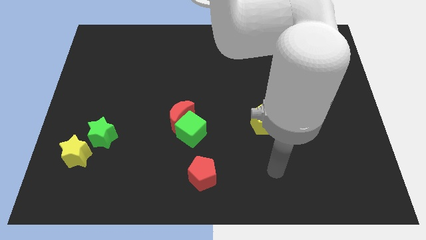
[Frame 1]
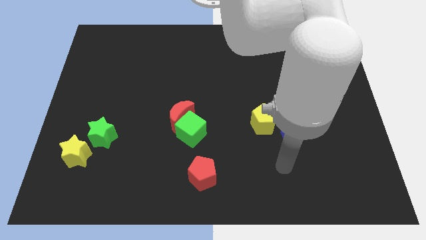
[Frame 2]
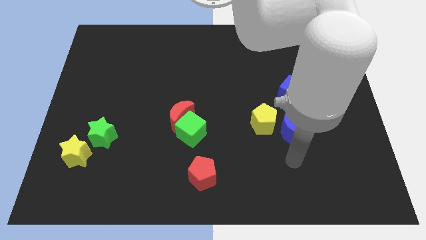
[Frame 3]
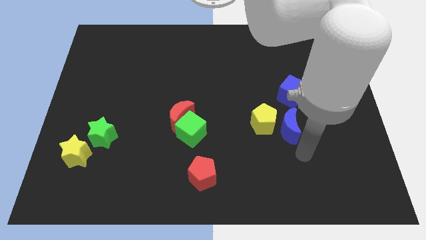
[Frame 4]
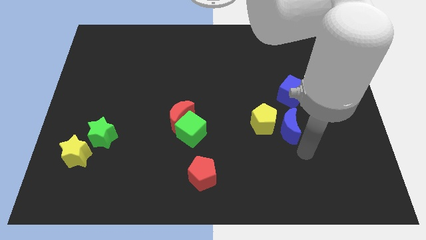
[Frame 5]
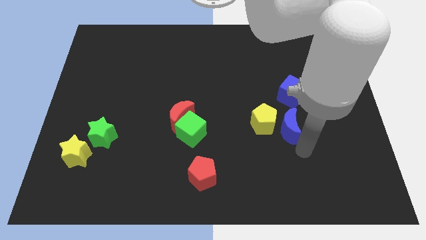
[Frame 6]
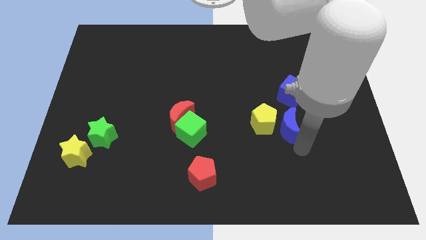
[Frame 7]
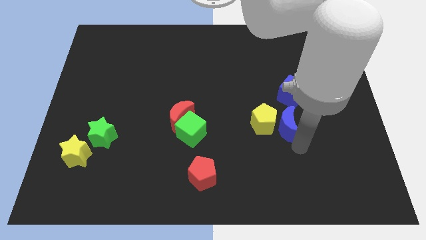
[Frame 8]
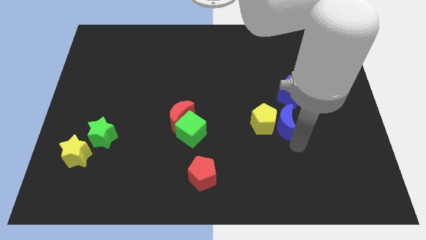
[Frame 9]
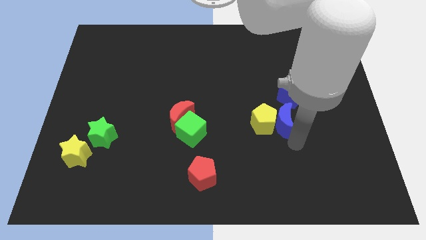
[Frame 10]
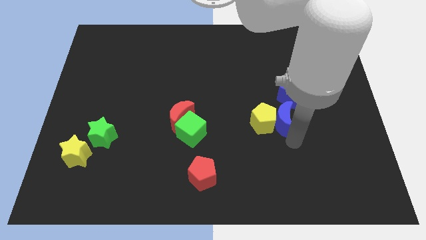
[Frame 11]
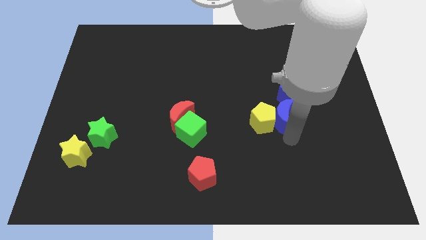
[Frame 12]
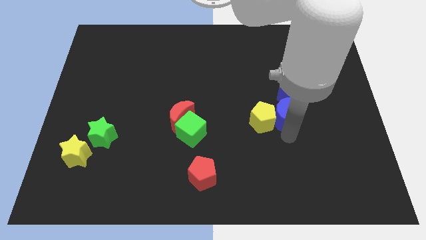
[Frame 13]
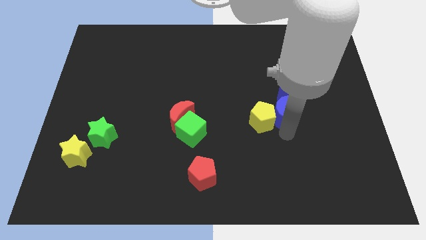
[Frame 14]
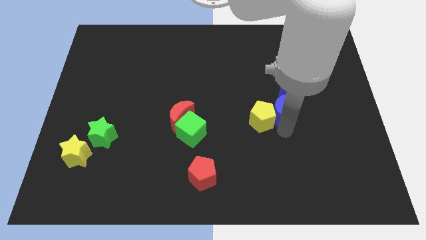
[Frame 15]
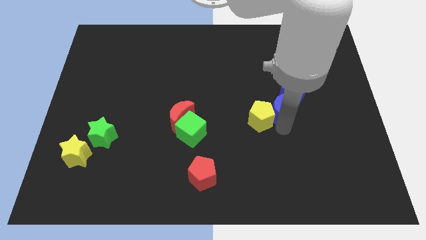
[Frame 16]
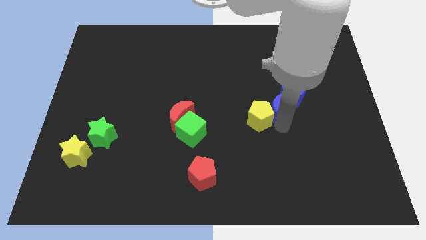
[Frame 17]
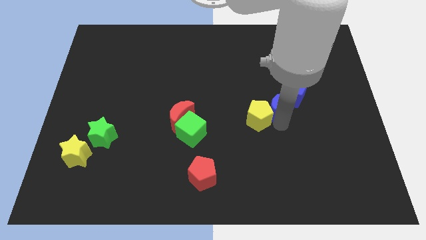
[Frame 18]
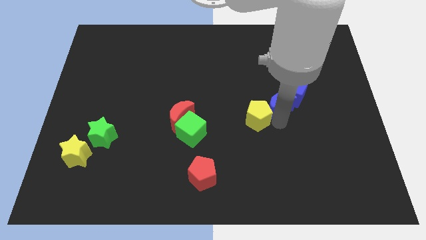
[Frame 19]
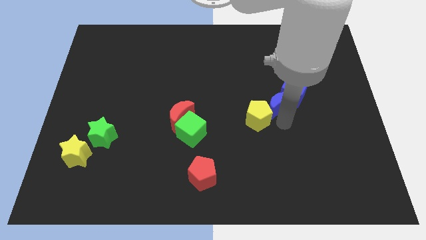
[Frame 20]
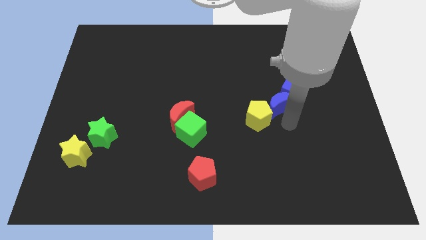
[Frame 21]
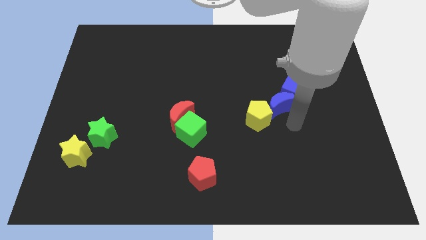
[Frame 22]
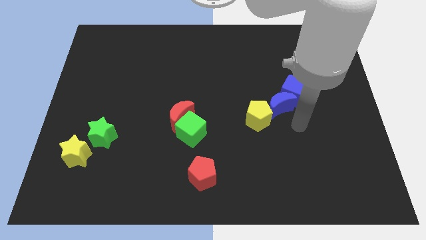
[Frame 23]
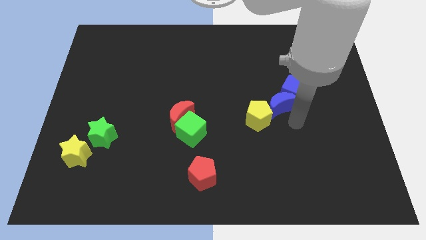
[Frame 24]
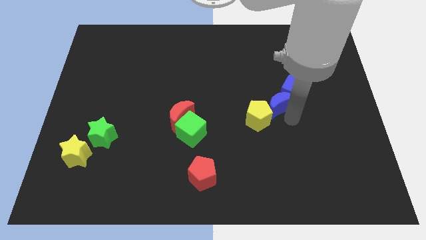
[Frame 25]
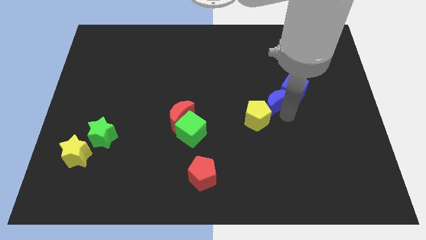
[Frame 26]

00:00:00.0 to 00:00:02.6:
push the blue moon a little bit upwards

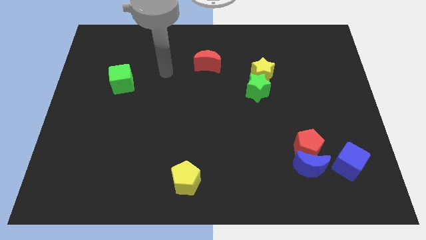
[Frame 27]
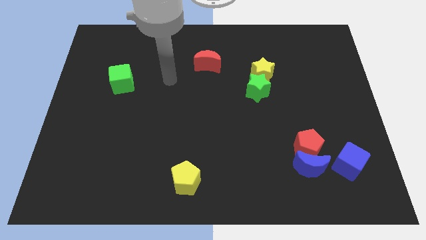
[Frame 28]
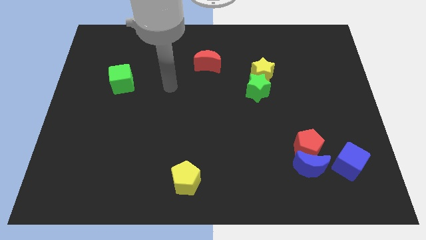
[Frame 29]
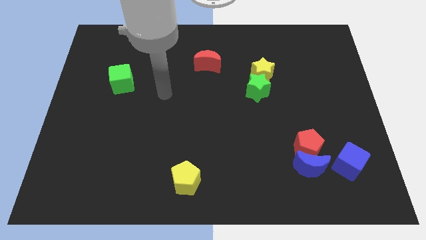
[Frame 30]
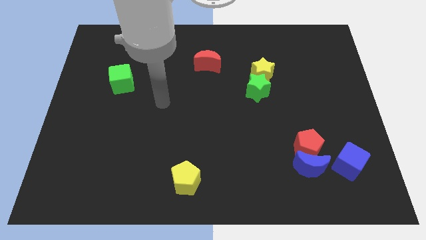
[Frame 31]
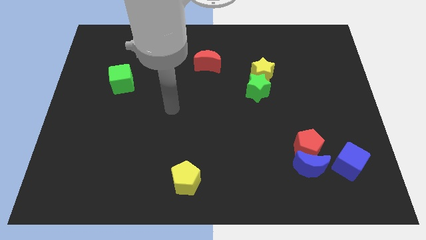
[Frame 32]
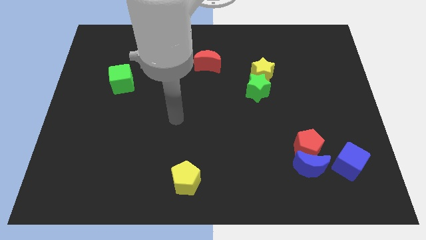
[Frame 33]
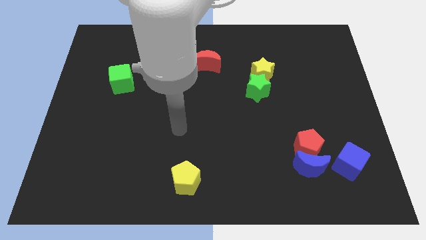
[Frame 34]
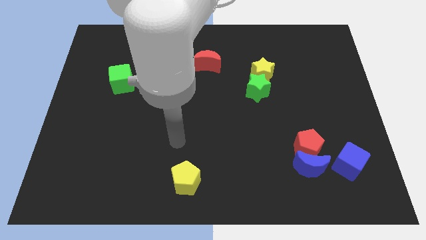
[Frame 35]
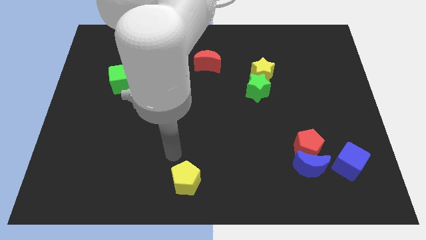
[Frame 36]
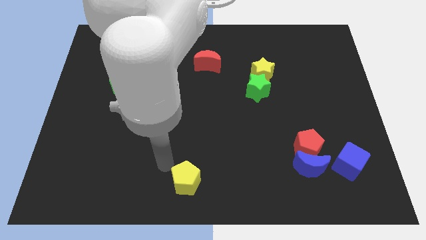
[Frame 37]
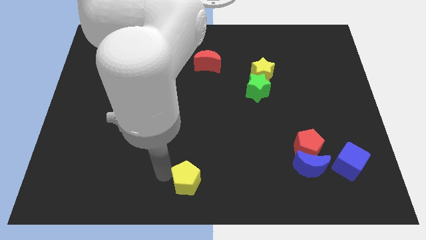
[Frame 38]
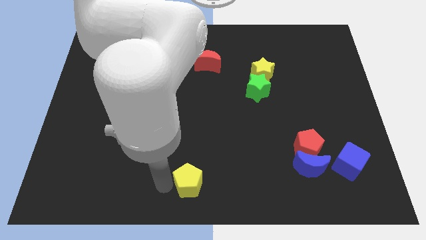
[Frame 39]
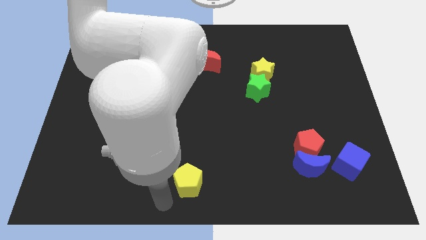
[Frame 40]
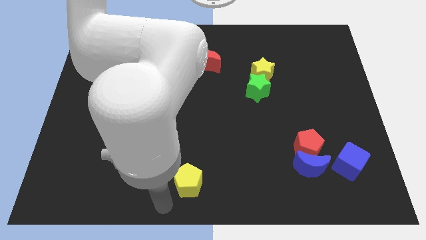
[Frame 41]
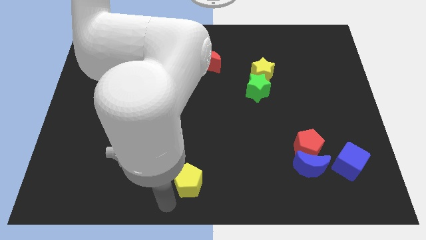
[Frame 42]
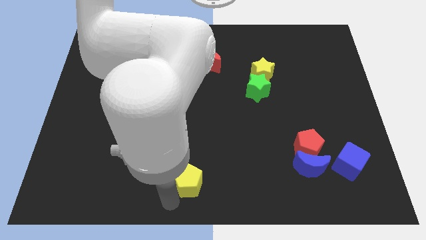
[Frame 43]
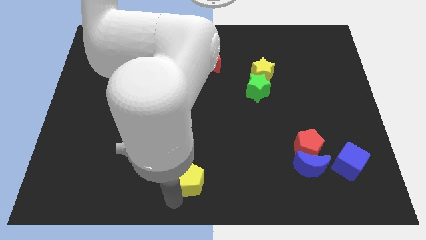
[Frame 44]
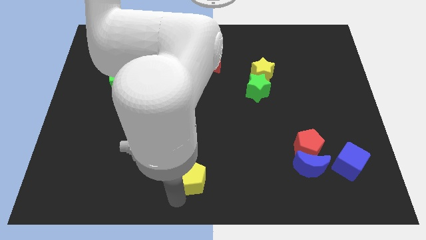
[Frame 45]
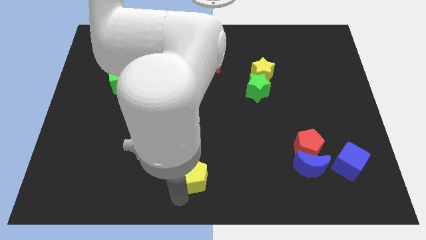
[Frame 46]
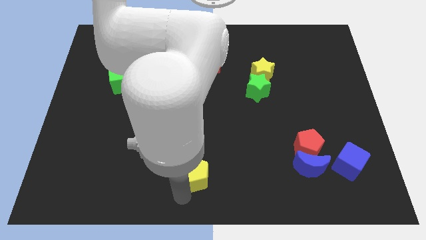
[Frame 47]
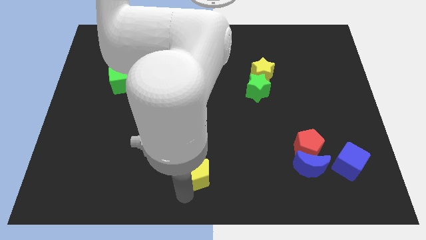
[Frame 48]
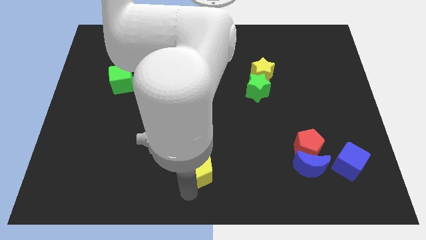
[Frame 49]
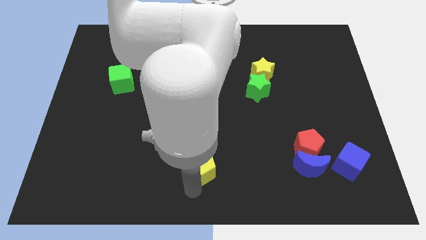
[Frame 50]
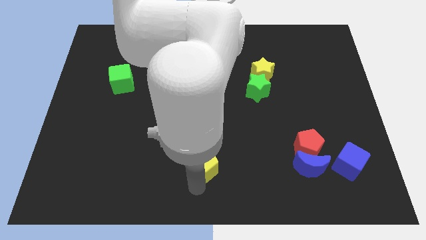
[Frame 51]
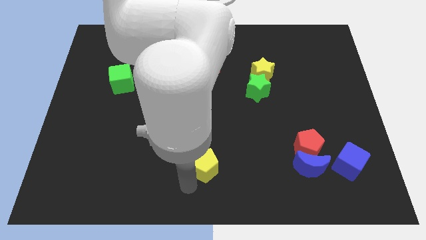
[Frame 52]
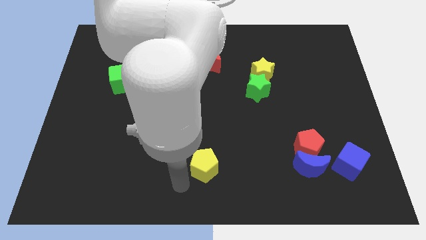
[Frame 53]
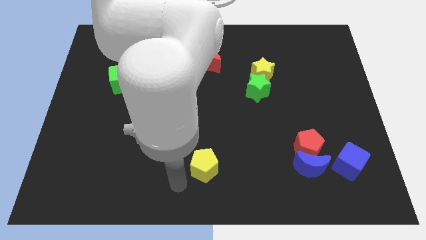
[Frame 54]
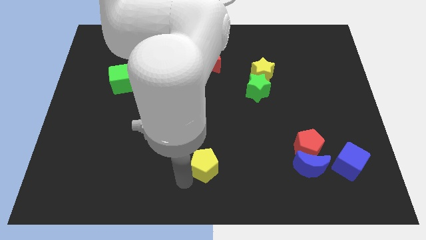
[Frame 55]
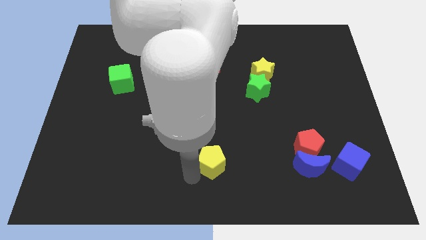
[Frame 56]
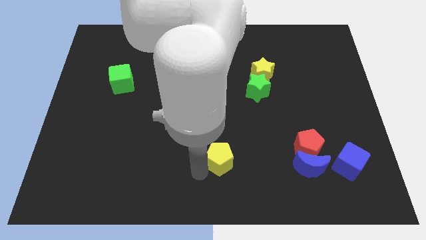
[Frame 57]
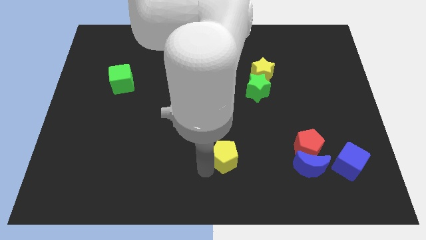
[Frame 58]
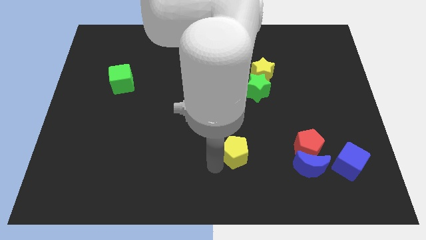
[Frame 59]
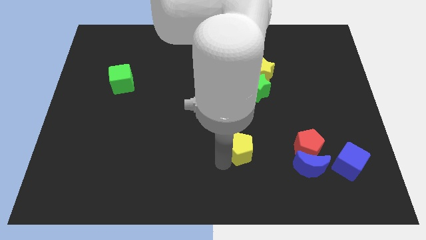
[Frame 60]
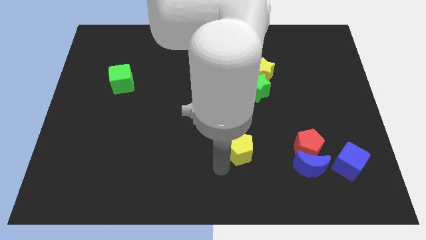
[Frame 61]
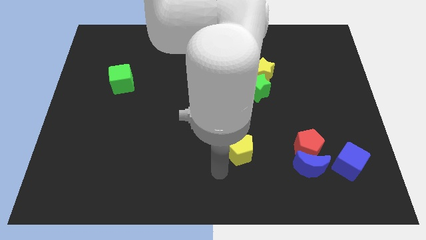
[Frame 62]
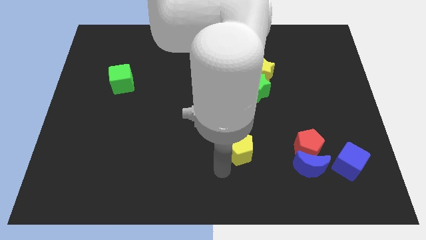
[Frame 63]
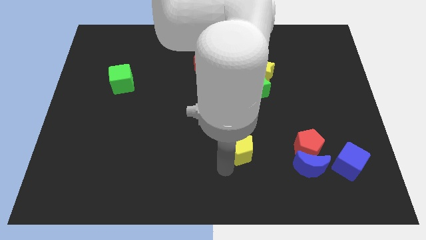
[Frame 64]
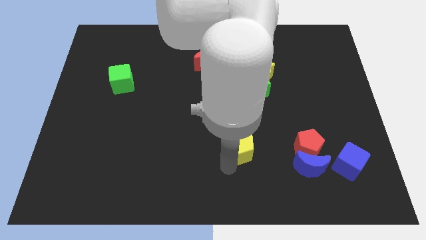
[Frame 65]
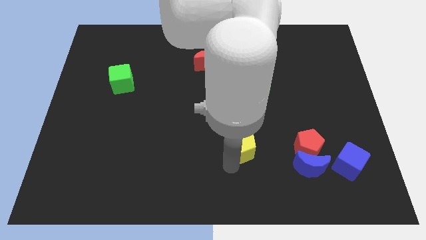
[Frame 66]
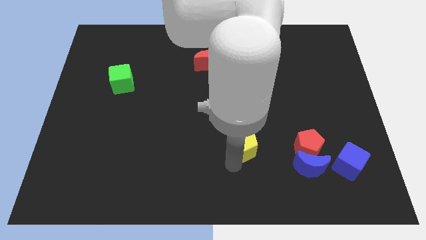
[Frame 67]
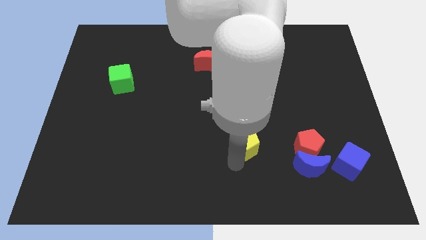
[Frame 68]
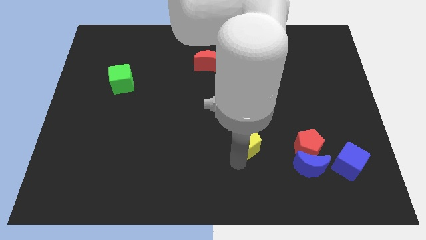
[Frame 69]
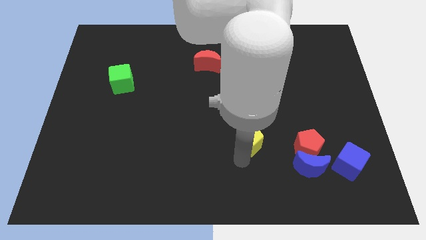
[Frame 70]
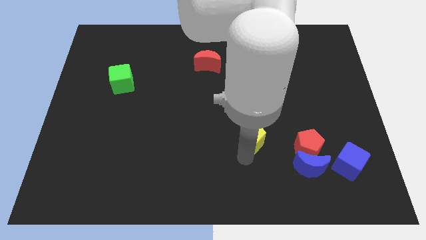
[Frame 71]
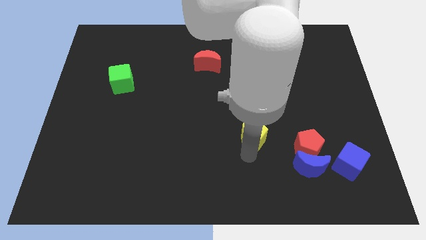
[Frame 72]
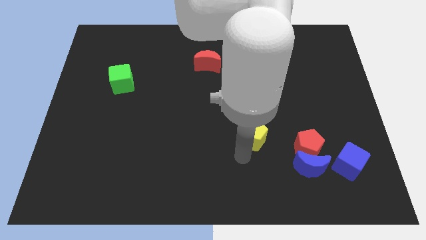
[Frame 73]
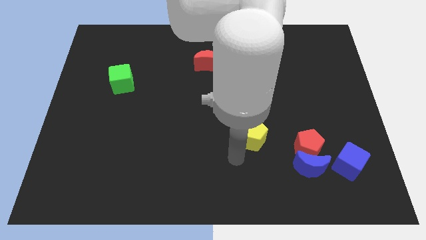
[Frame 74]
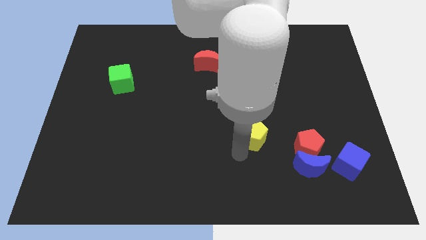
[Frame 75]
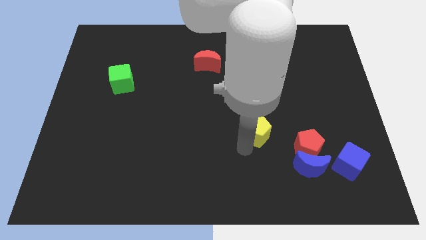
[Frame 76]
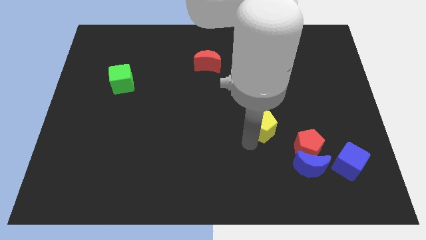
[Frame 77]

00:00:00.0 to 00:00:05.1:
slide the yellow pentagon up and to the right

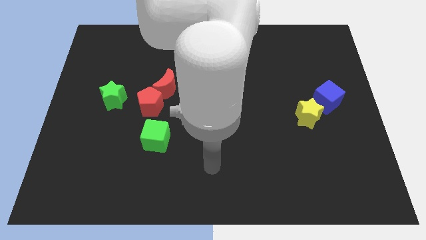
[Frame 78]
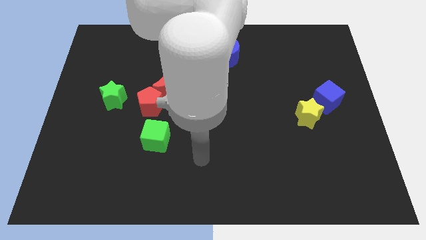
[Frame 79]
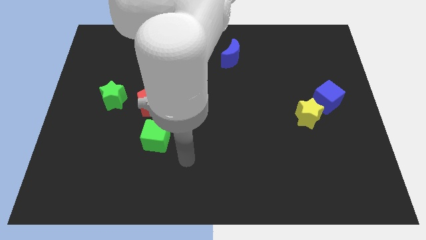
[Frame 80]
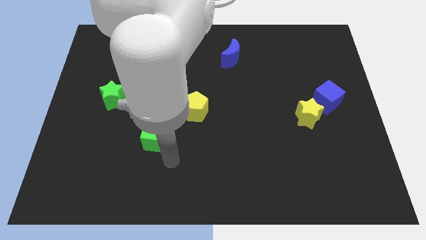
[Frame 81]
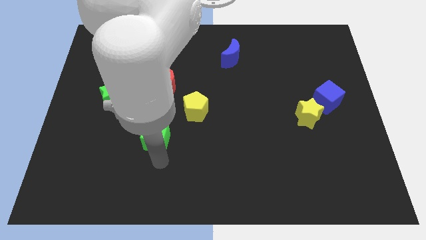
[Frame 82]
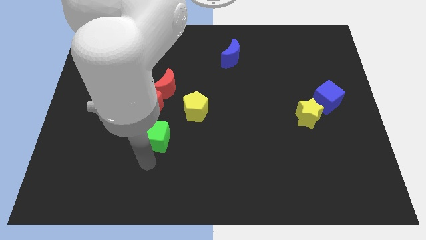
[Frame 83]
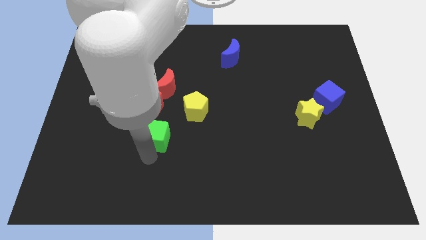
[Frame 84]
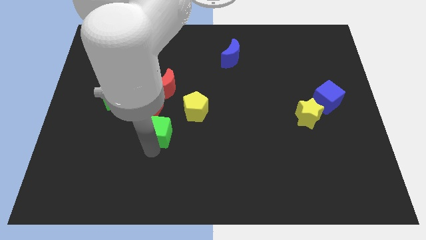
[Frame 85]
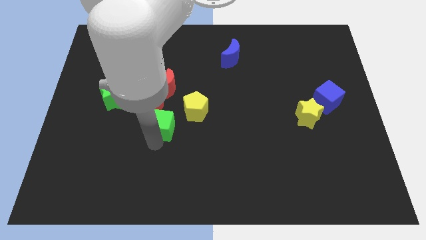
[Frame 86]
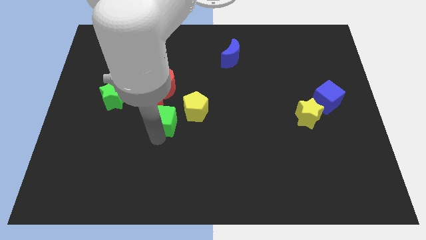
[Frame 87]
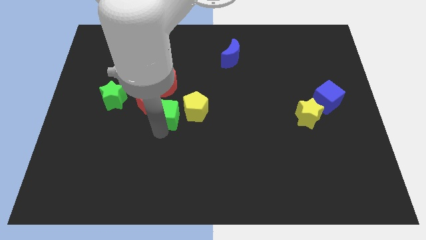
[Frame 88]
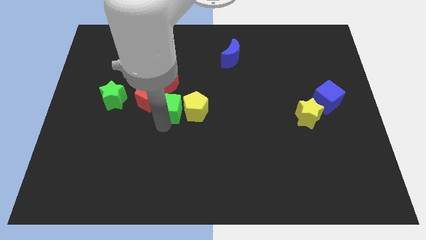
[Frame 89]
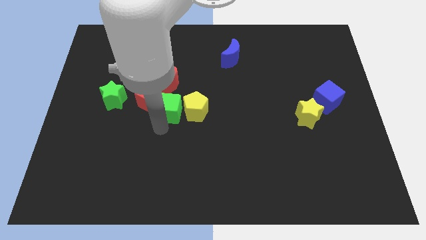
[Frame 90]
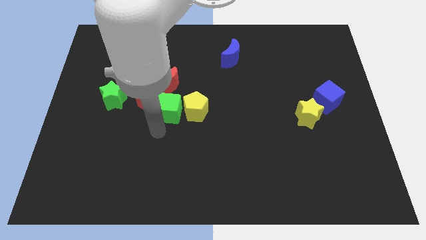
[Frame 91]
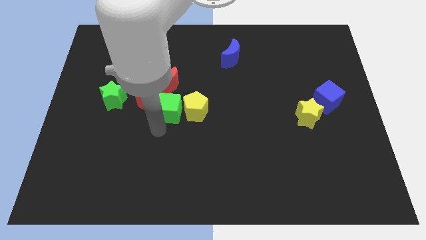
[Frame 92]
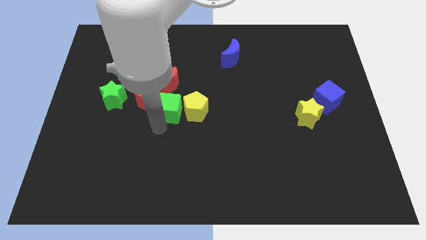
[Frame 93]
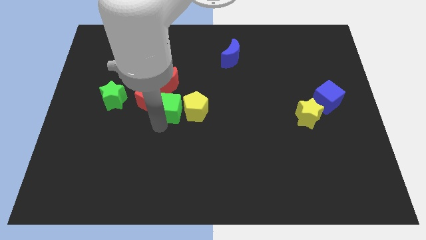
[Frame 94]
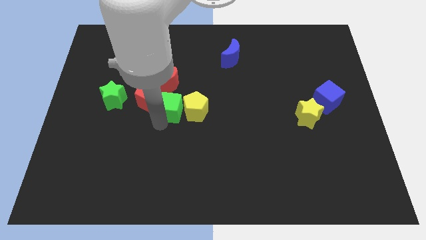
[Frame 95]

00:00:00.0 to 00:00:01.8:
slide the green cube a bit diagonally up and right
